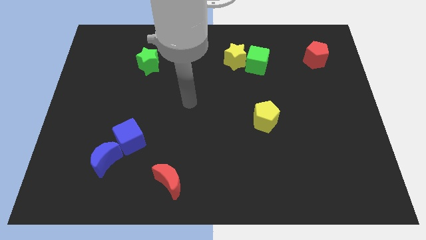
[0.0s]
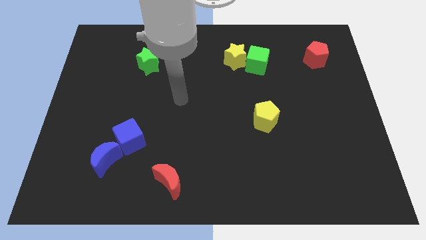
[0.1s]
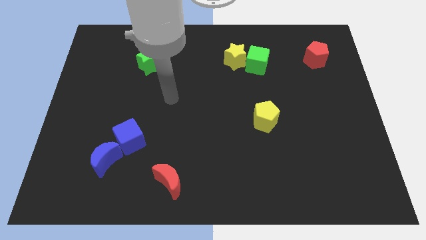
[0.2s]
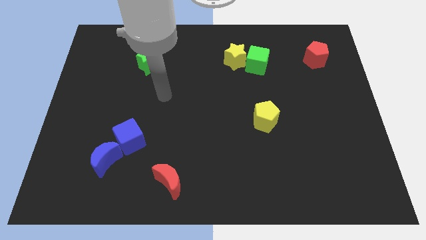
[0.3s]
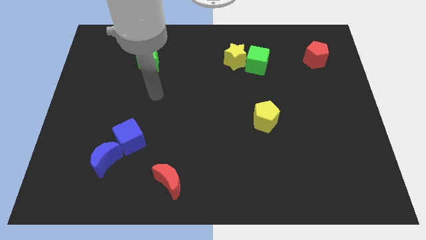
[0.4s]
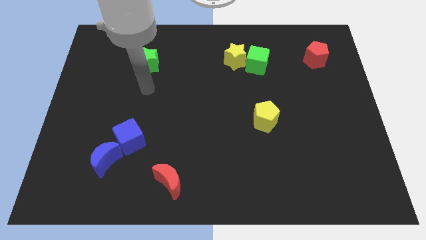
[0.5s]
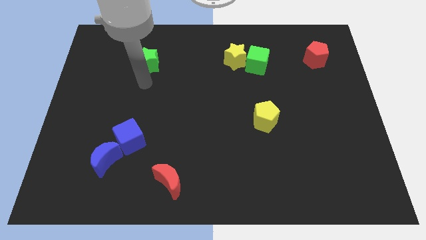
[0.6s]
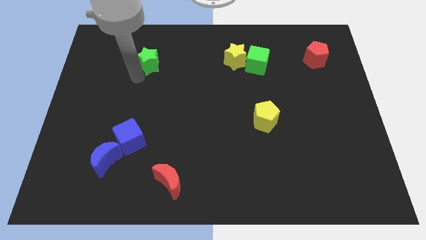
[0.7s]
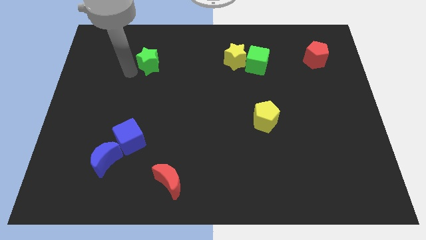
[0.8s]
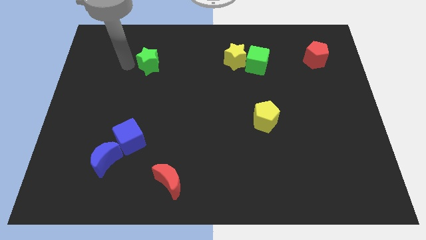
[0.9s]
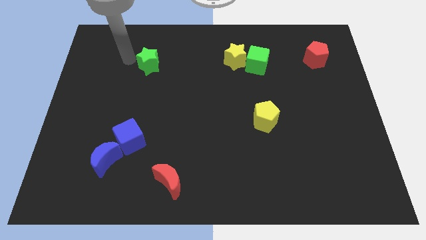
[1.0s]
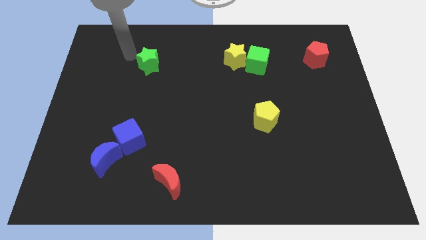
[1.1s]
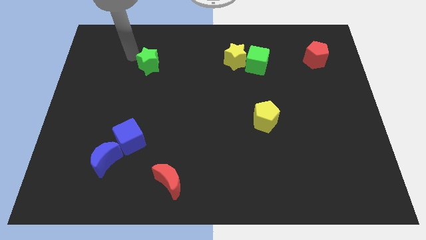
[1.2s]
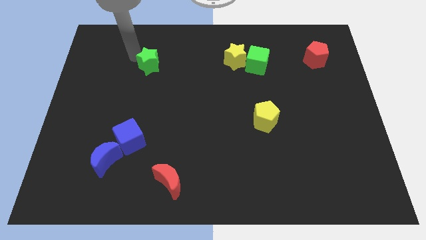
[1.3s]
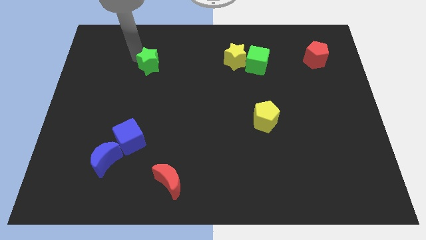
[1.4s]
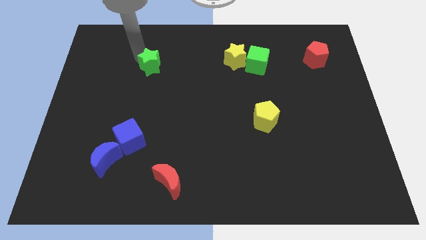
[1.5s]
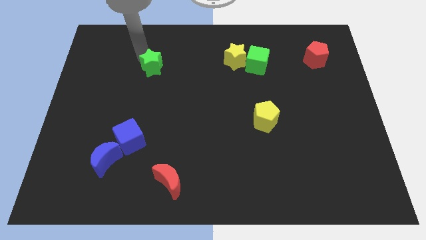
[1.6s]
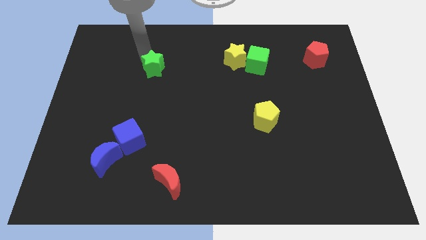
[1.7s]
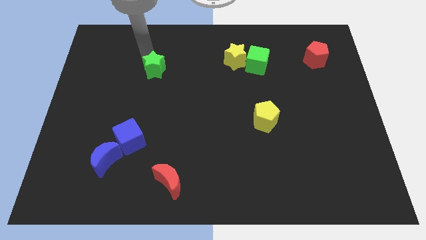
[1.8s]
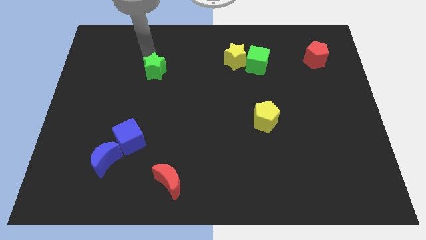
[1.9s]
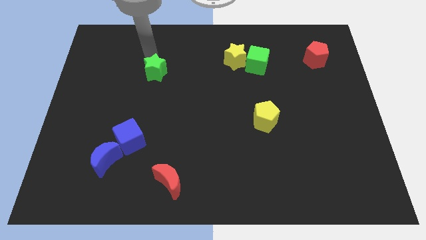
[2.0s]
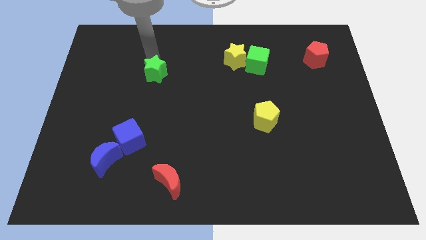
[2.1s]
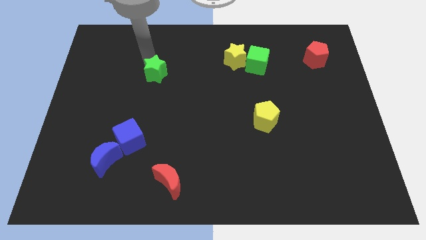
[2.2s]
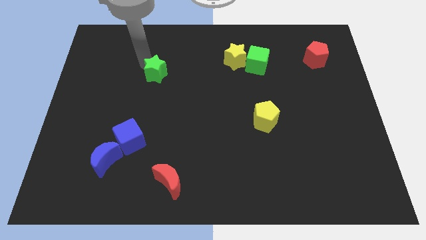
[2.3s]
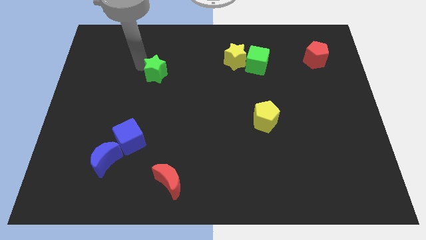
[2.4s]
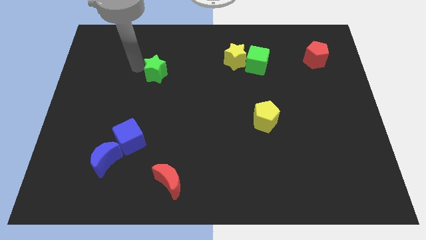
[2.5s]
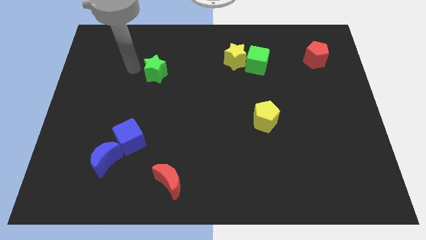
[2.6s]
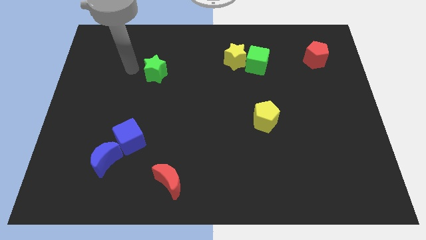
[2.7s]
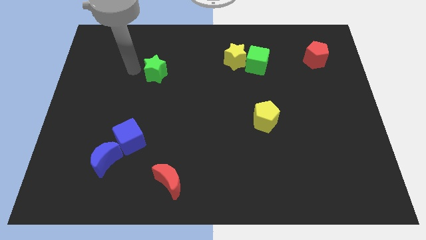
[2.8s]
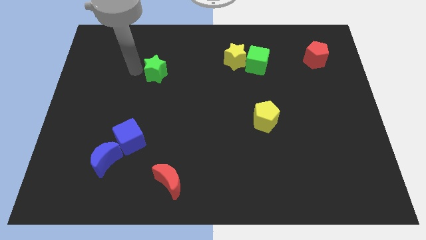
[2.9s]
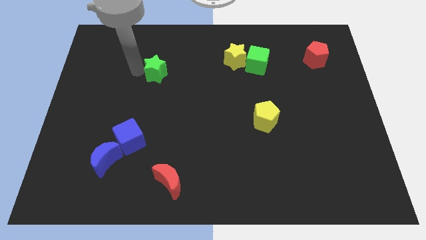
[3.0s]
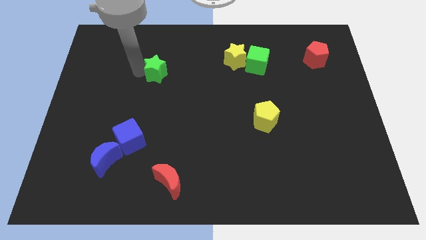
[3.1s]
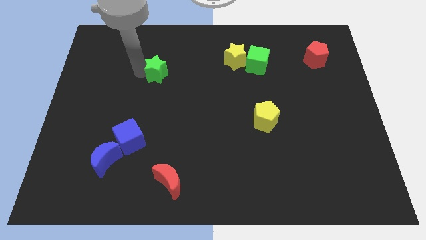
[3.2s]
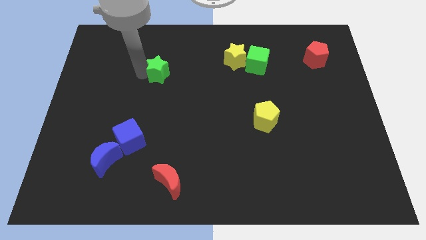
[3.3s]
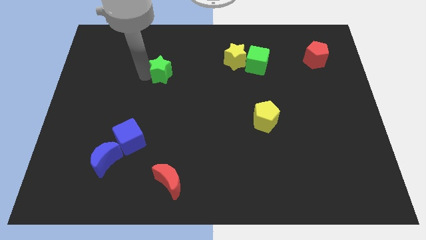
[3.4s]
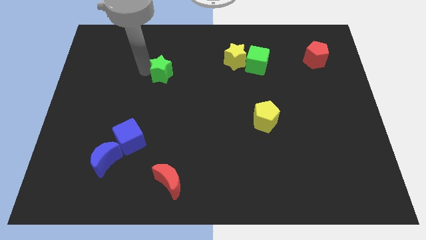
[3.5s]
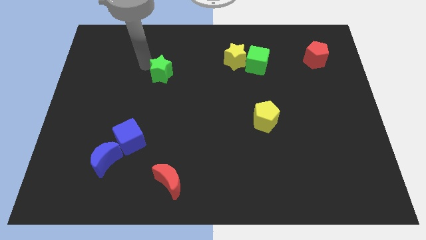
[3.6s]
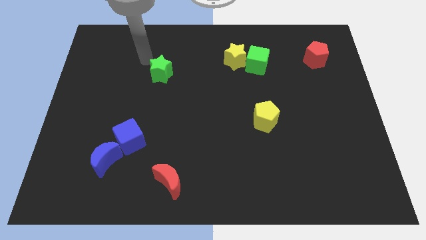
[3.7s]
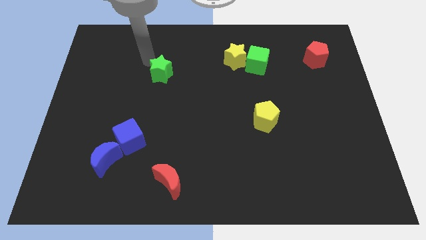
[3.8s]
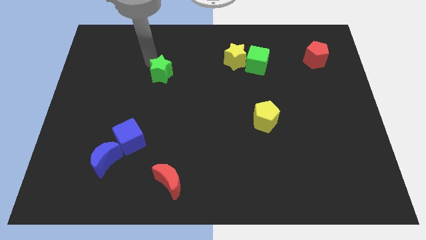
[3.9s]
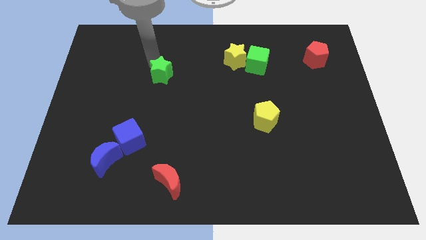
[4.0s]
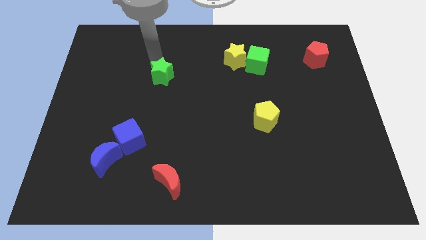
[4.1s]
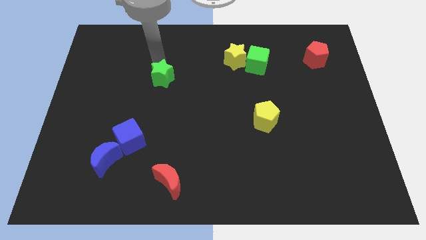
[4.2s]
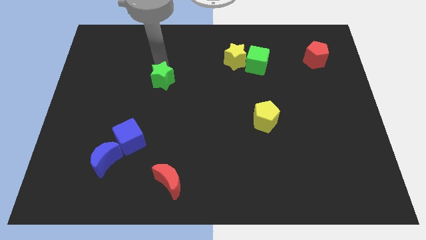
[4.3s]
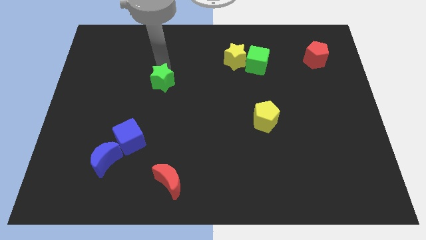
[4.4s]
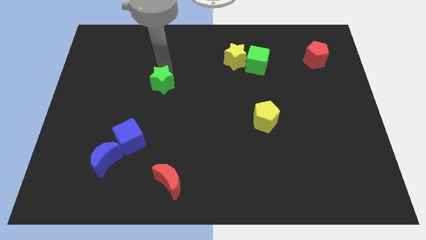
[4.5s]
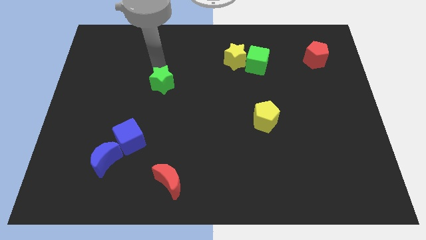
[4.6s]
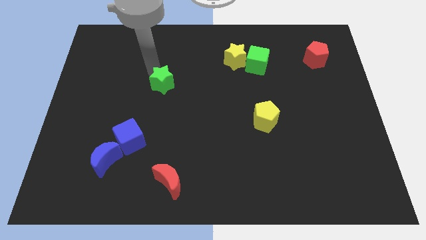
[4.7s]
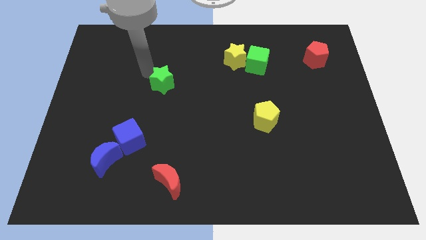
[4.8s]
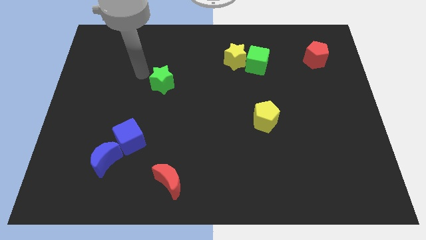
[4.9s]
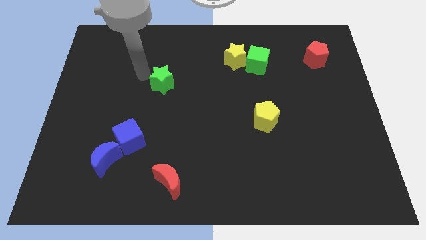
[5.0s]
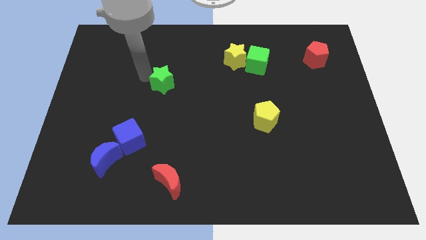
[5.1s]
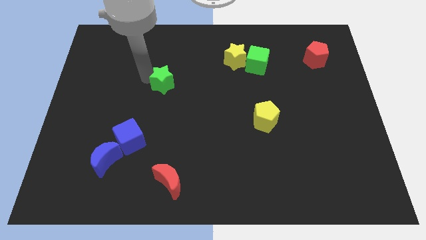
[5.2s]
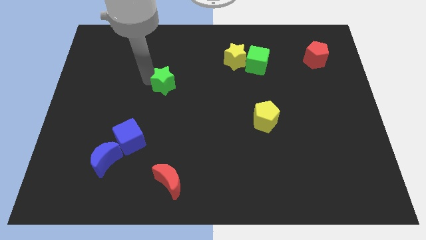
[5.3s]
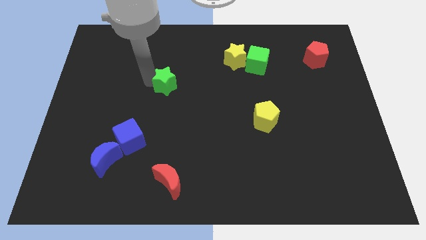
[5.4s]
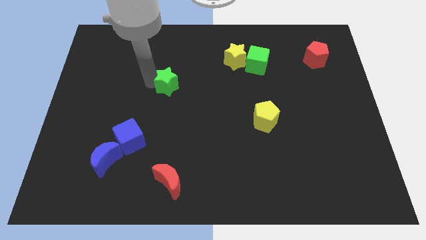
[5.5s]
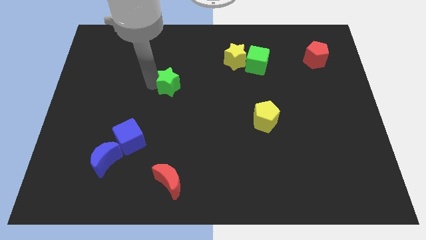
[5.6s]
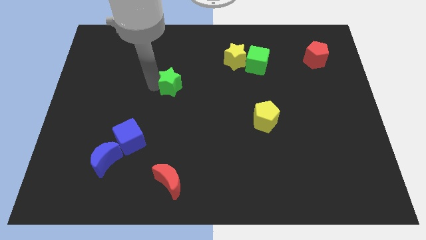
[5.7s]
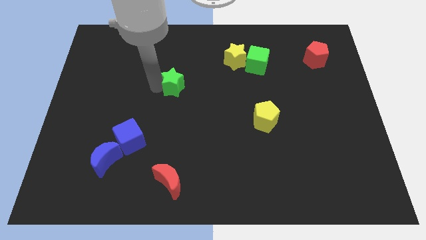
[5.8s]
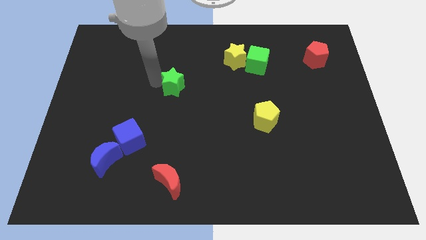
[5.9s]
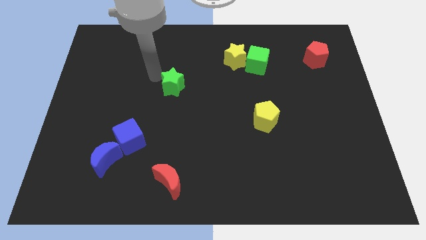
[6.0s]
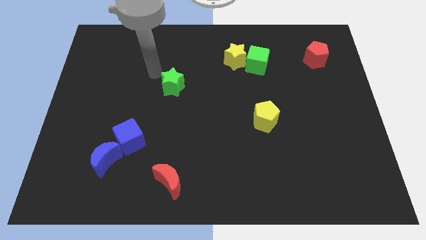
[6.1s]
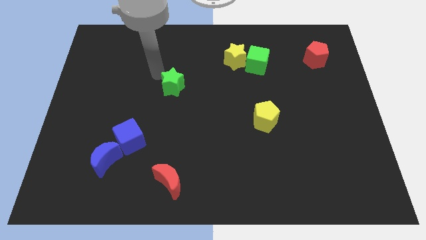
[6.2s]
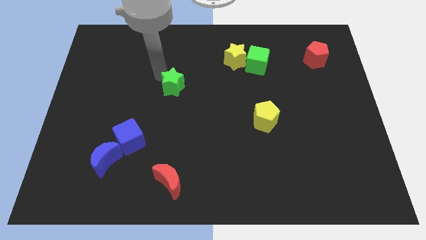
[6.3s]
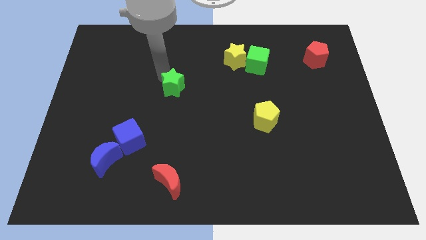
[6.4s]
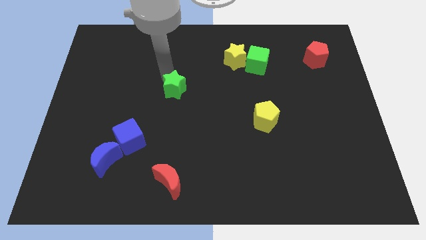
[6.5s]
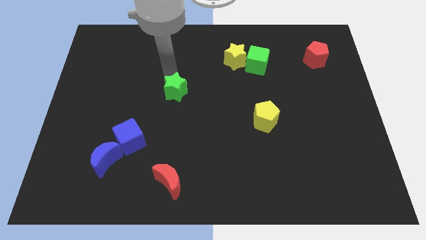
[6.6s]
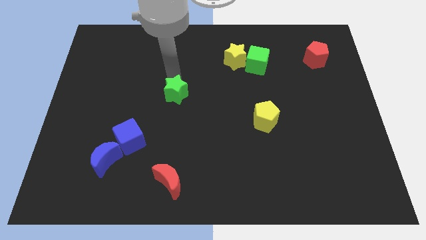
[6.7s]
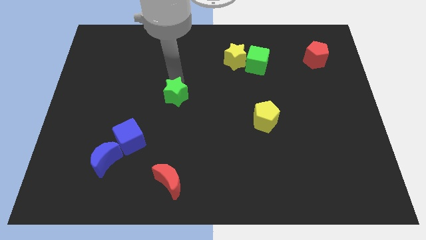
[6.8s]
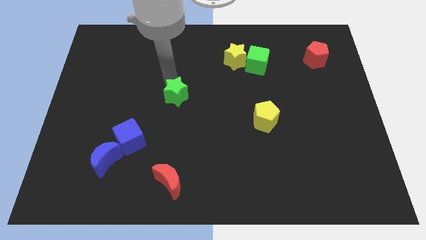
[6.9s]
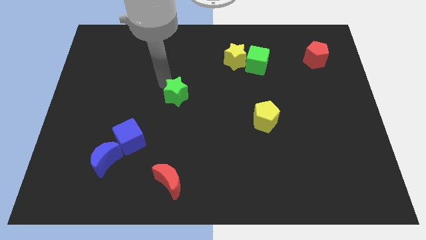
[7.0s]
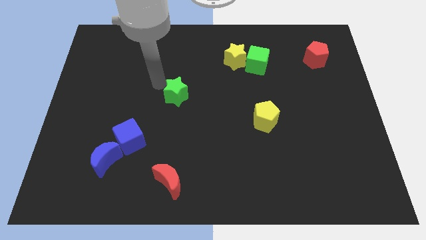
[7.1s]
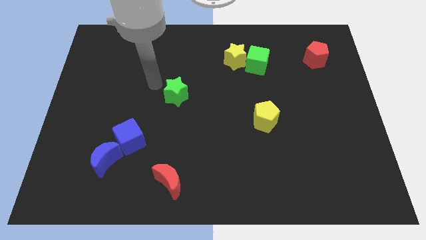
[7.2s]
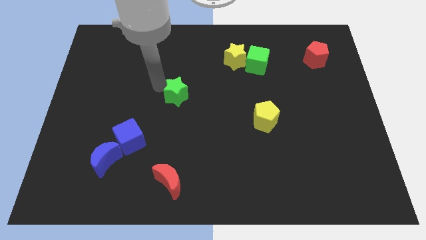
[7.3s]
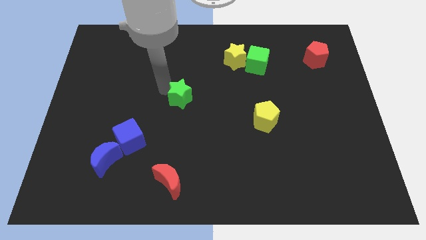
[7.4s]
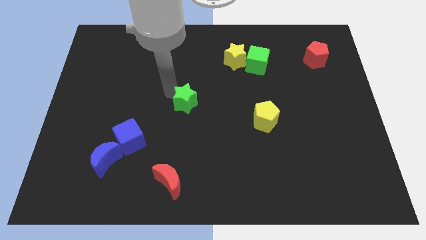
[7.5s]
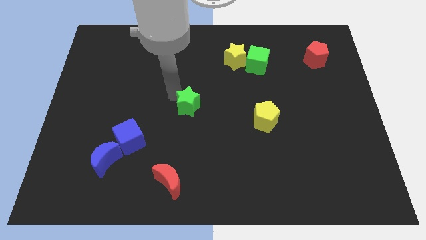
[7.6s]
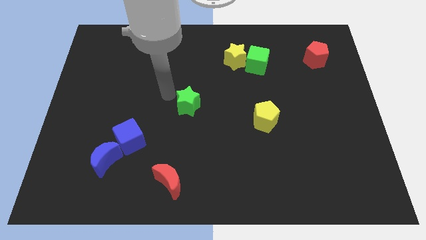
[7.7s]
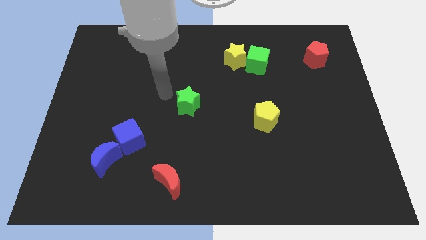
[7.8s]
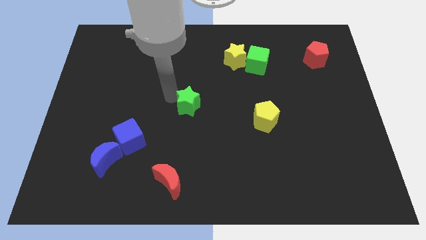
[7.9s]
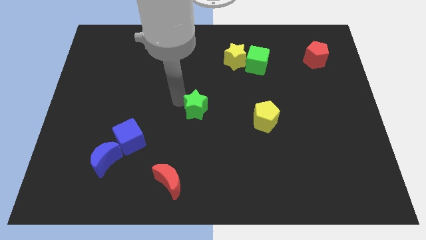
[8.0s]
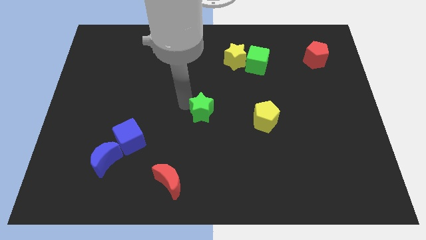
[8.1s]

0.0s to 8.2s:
move the green star to the left of the yellow pentagon
